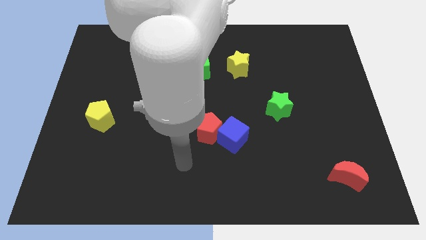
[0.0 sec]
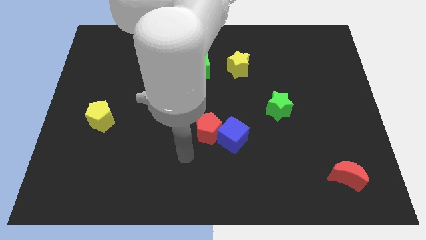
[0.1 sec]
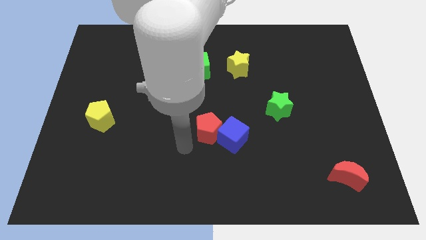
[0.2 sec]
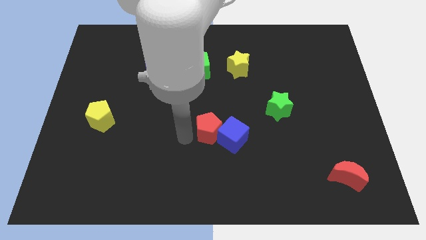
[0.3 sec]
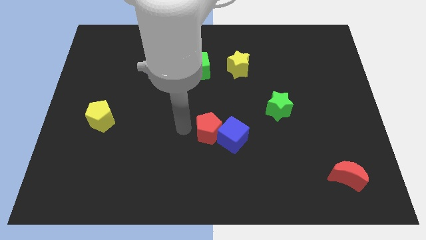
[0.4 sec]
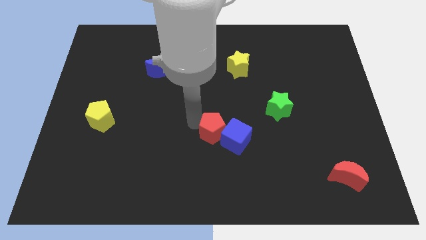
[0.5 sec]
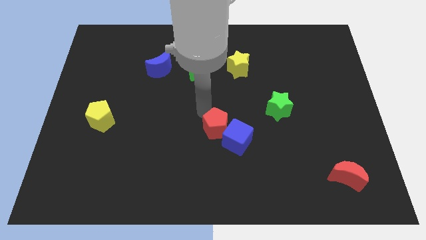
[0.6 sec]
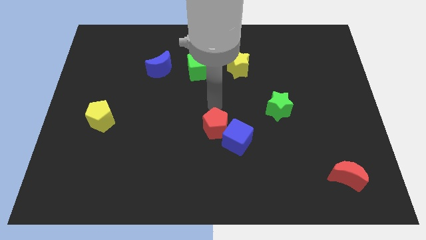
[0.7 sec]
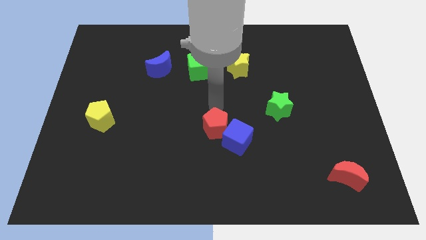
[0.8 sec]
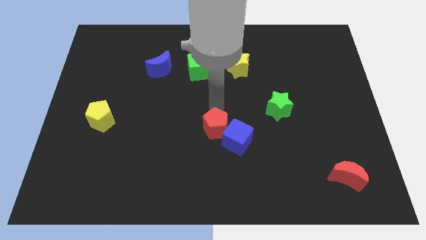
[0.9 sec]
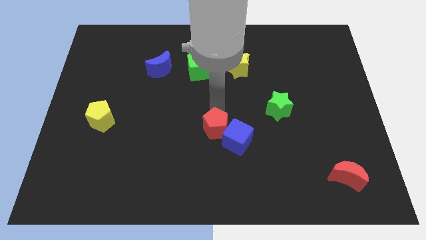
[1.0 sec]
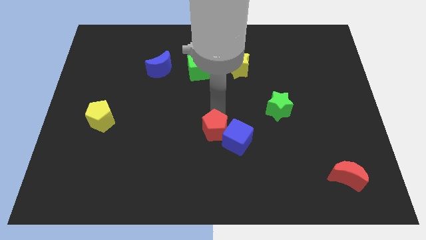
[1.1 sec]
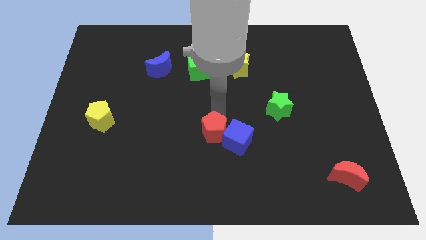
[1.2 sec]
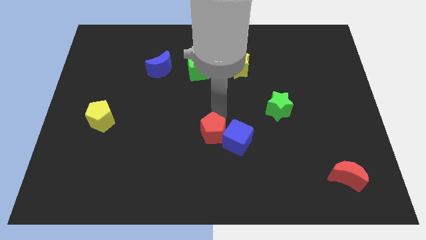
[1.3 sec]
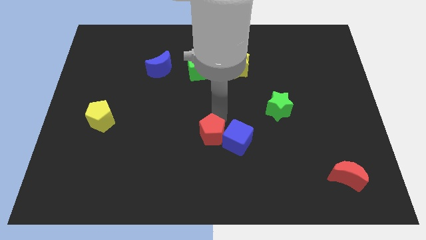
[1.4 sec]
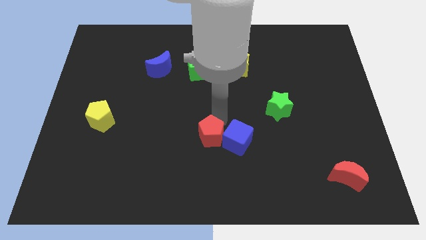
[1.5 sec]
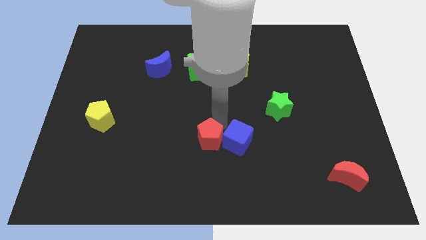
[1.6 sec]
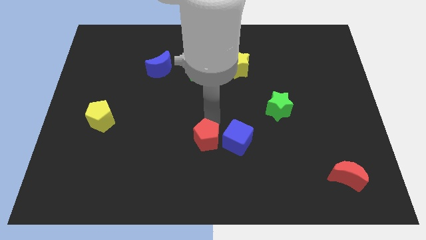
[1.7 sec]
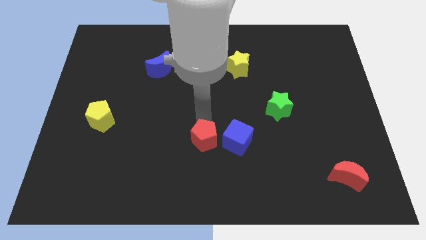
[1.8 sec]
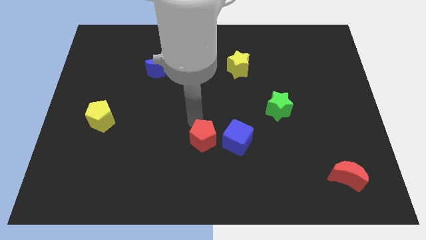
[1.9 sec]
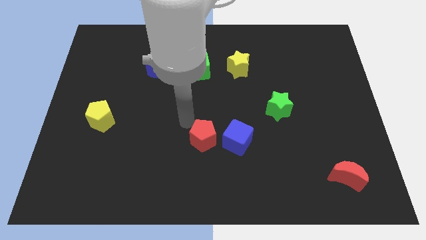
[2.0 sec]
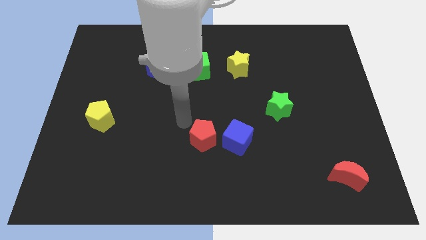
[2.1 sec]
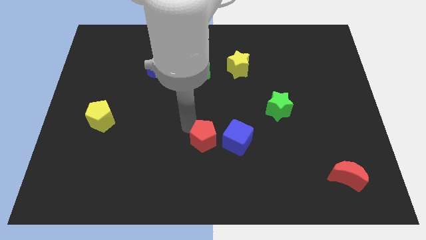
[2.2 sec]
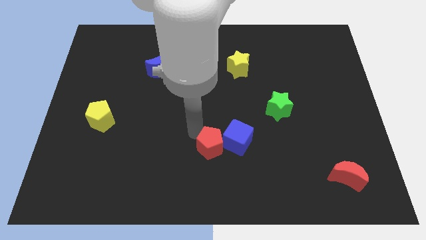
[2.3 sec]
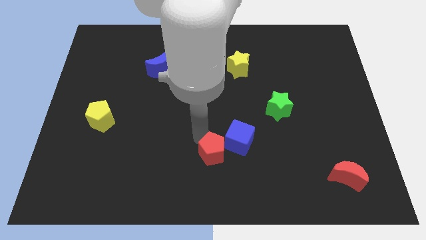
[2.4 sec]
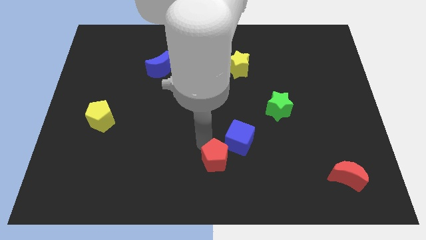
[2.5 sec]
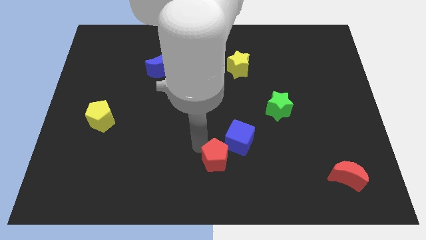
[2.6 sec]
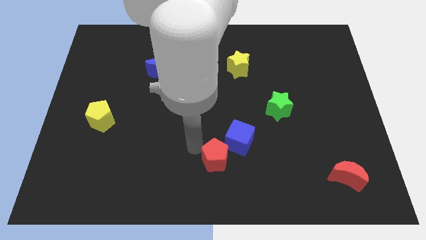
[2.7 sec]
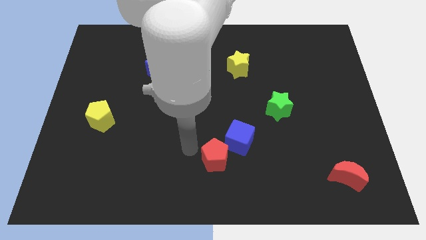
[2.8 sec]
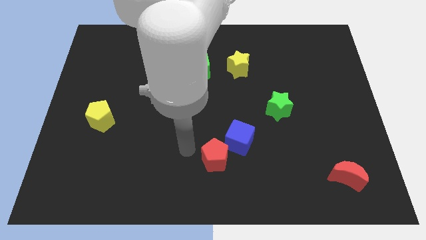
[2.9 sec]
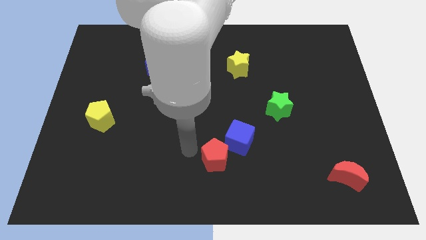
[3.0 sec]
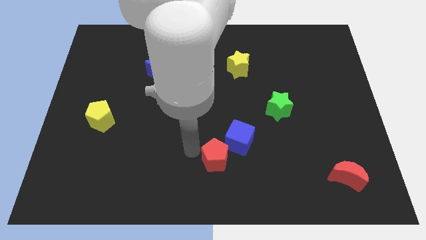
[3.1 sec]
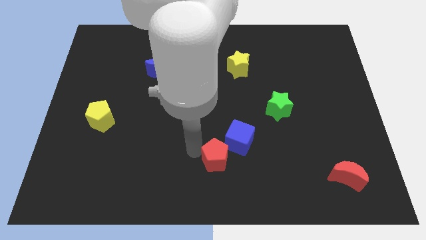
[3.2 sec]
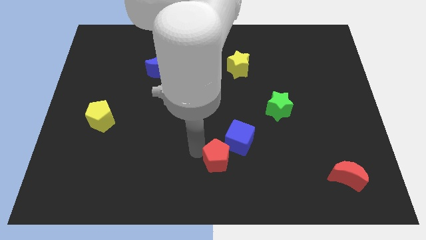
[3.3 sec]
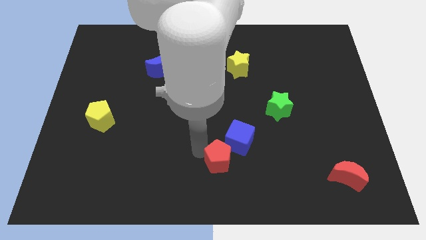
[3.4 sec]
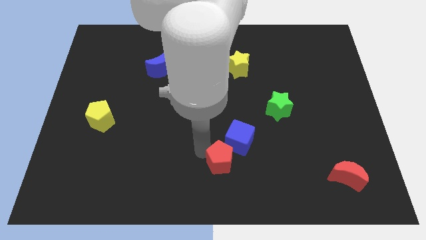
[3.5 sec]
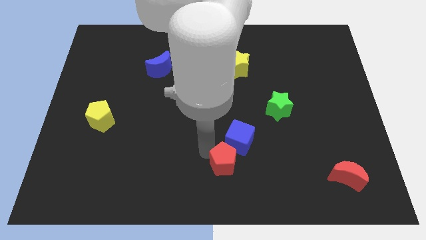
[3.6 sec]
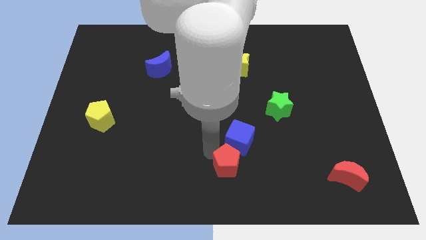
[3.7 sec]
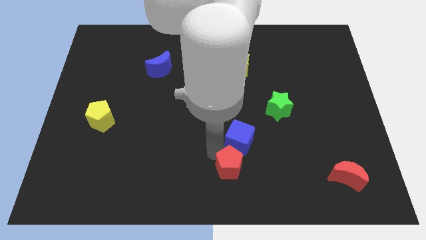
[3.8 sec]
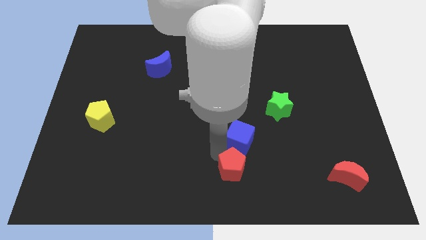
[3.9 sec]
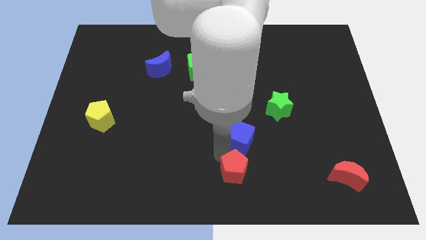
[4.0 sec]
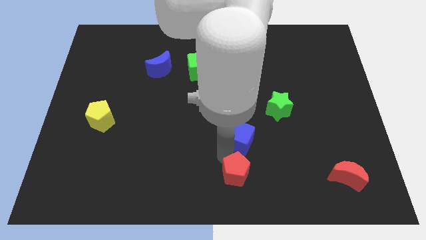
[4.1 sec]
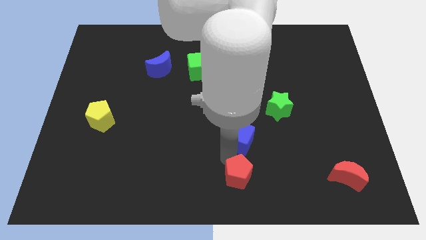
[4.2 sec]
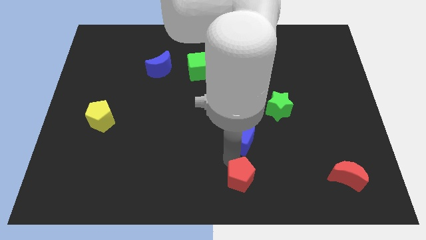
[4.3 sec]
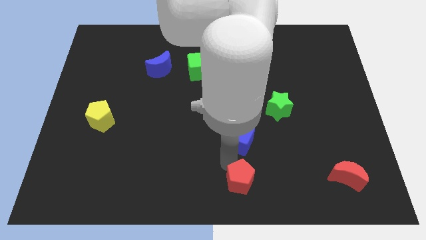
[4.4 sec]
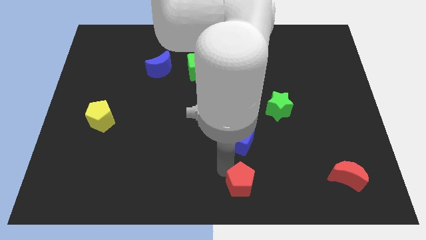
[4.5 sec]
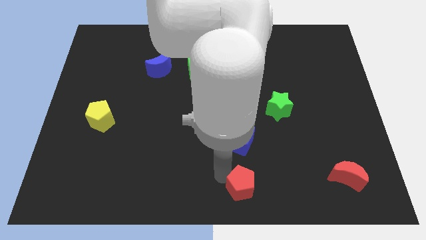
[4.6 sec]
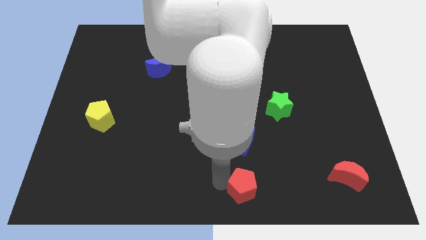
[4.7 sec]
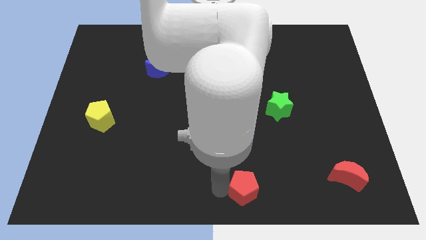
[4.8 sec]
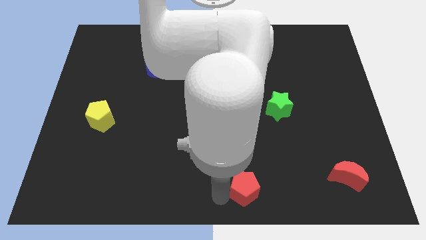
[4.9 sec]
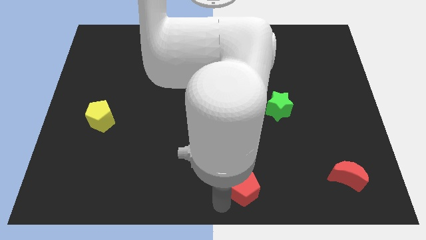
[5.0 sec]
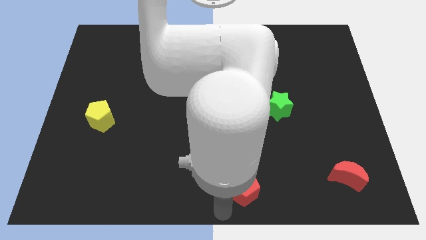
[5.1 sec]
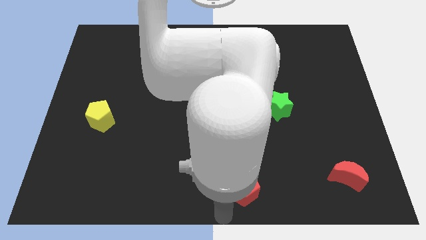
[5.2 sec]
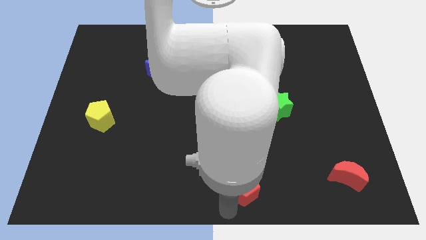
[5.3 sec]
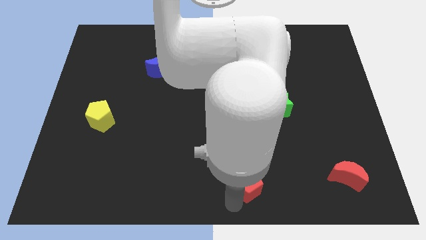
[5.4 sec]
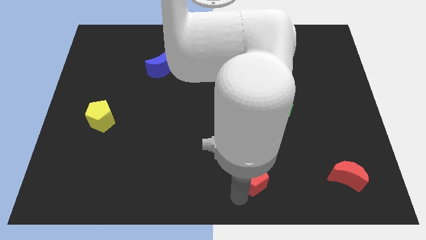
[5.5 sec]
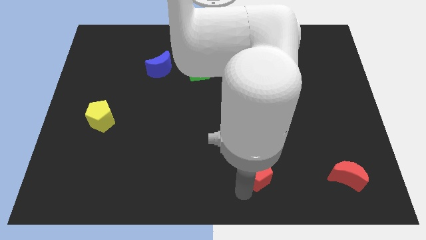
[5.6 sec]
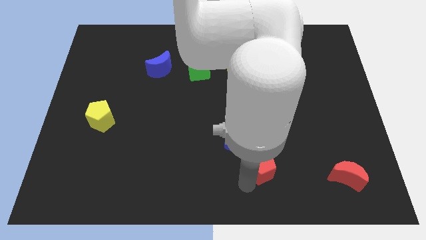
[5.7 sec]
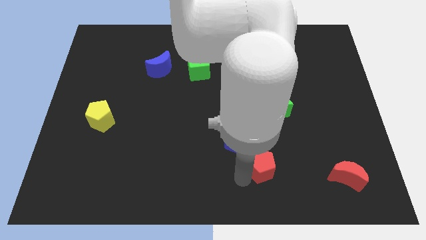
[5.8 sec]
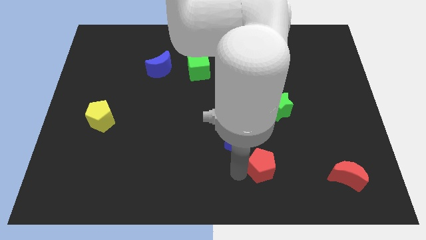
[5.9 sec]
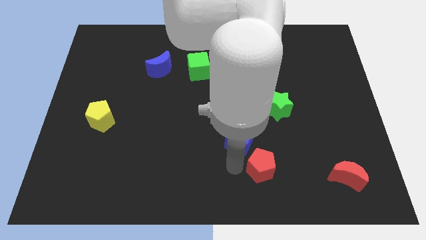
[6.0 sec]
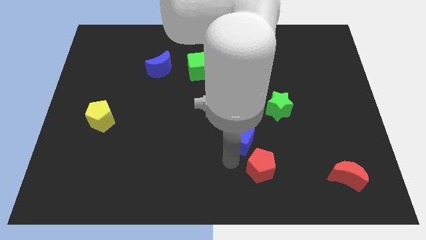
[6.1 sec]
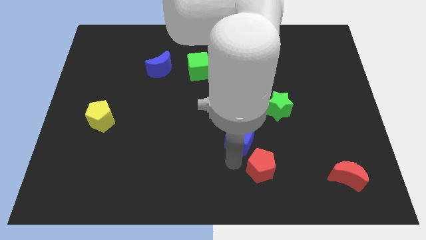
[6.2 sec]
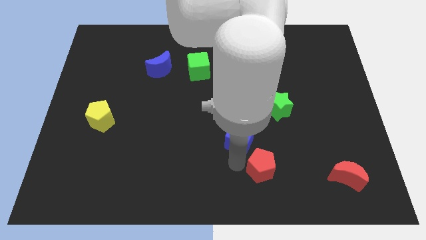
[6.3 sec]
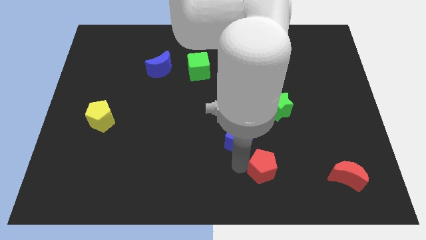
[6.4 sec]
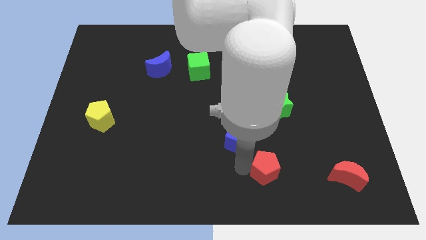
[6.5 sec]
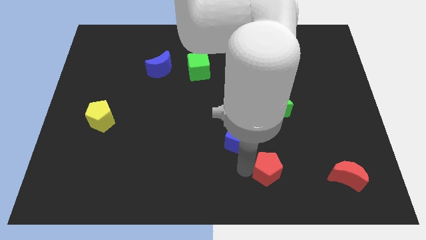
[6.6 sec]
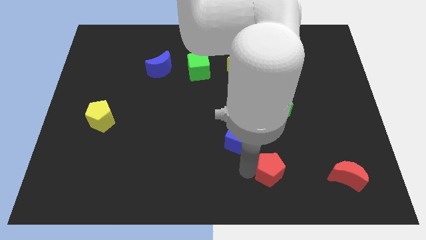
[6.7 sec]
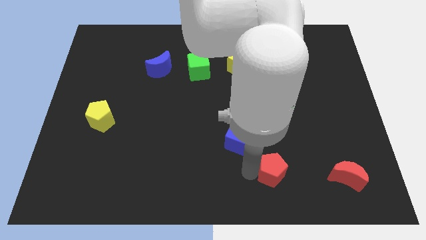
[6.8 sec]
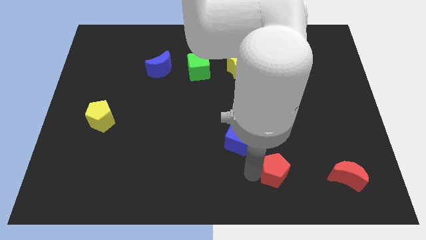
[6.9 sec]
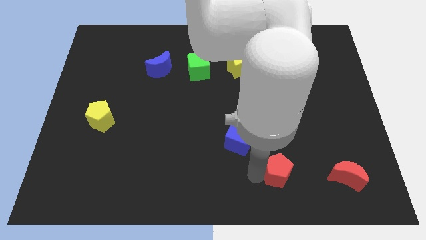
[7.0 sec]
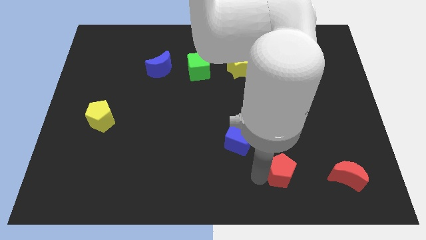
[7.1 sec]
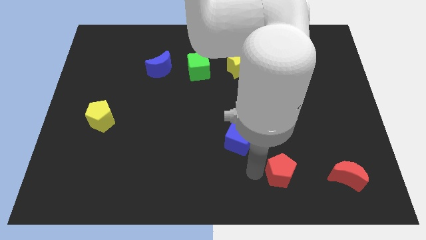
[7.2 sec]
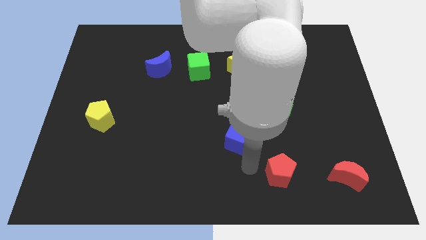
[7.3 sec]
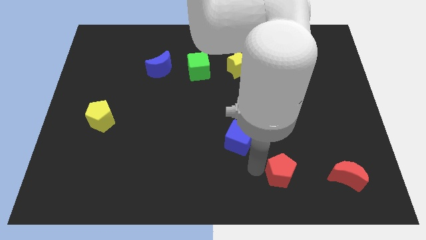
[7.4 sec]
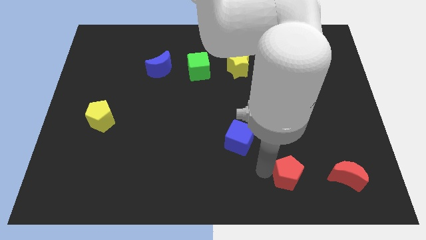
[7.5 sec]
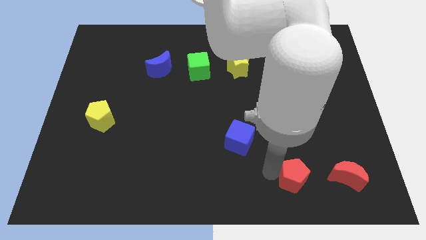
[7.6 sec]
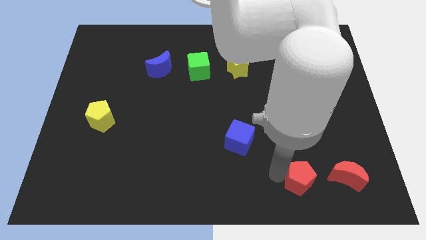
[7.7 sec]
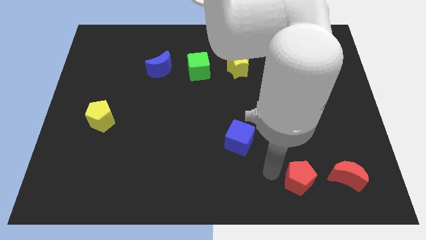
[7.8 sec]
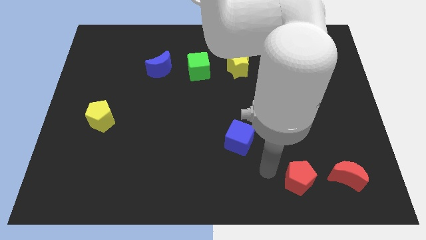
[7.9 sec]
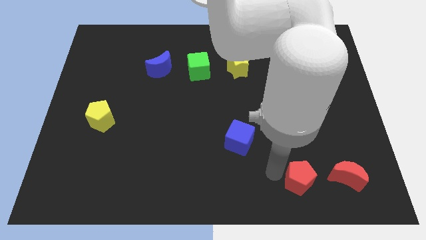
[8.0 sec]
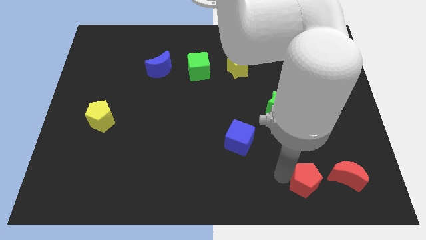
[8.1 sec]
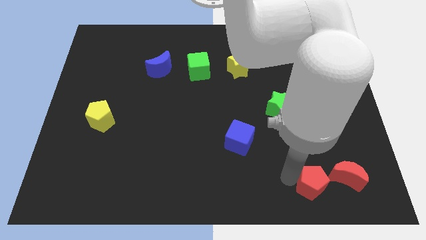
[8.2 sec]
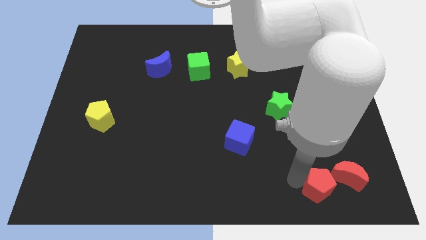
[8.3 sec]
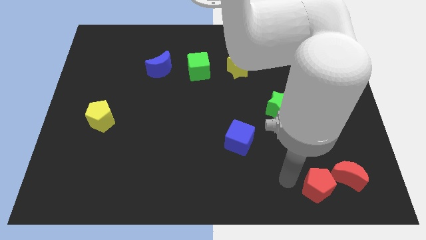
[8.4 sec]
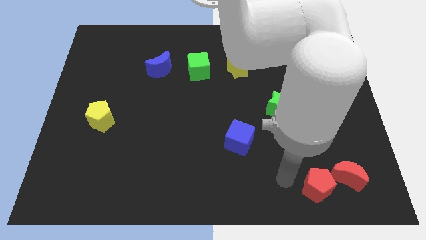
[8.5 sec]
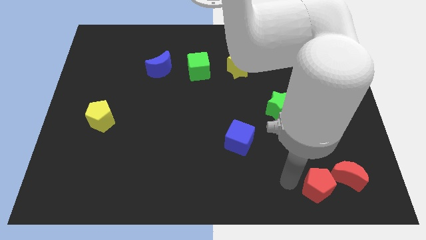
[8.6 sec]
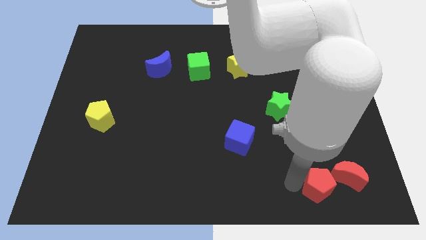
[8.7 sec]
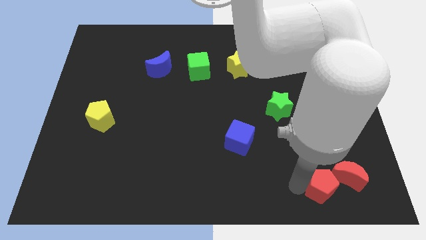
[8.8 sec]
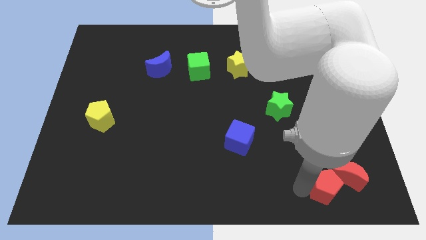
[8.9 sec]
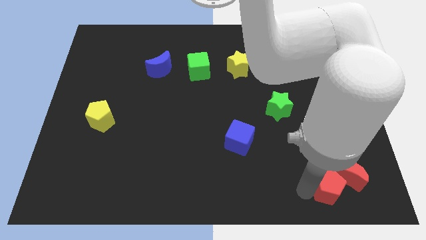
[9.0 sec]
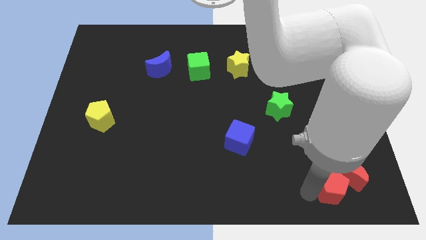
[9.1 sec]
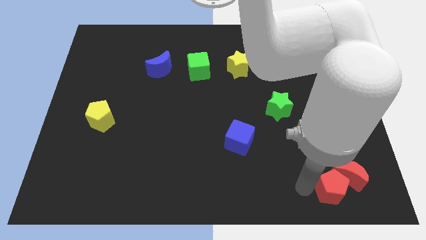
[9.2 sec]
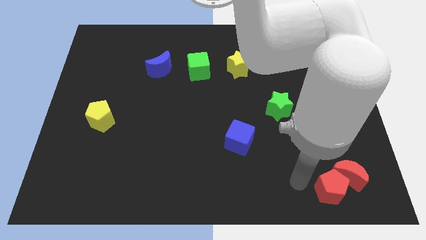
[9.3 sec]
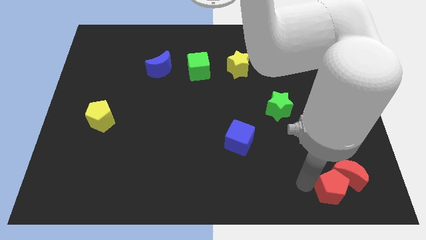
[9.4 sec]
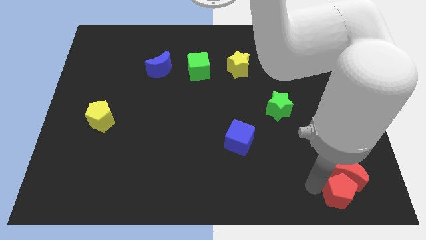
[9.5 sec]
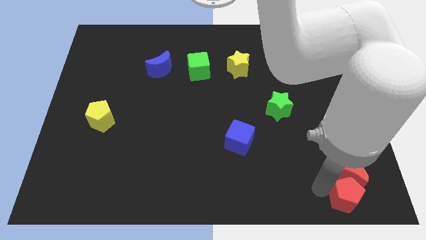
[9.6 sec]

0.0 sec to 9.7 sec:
move the red pentagon to the bottom right corner
